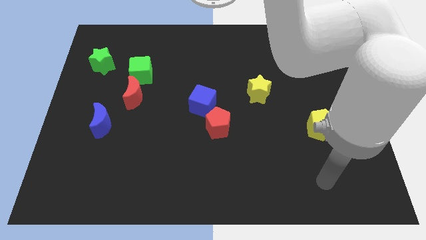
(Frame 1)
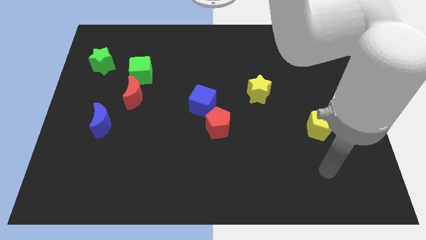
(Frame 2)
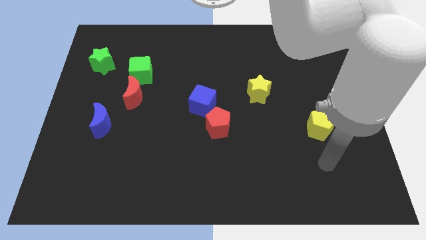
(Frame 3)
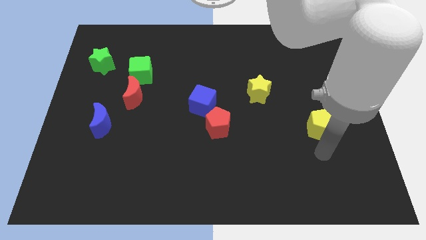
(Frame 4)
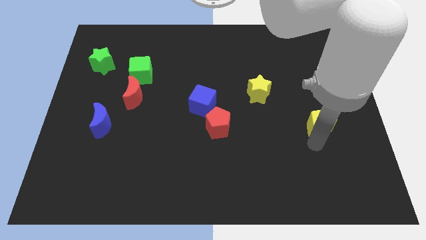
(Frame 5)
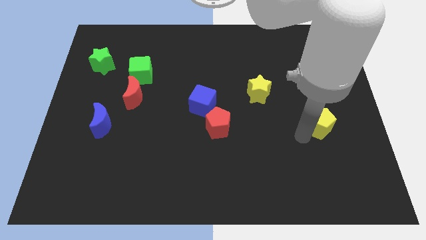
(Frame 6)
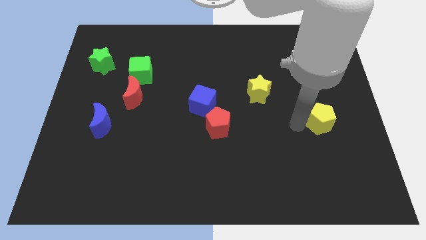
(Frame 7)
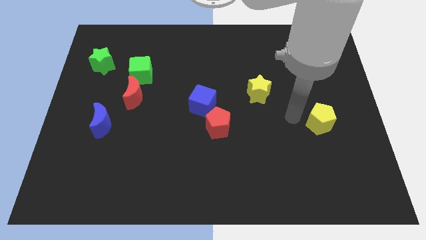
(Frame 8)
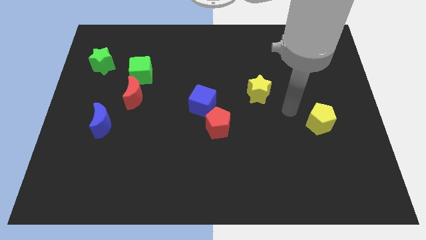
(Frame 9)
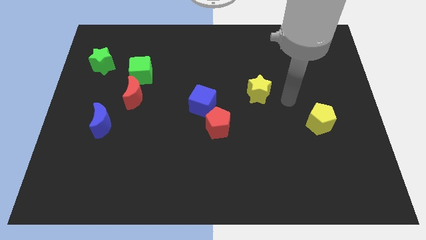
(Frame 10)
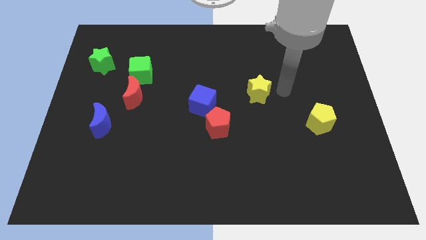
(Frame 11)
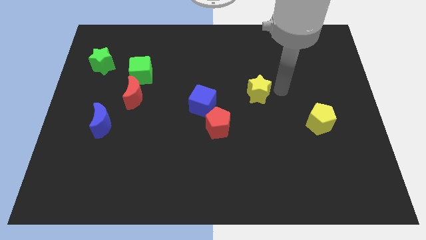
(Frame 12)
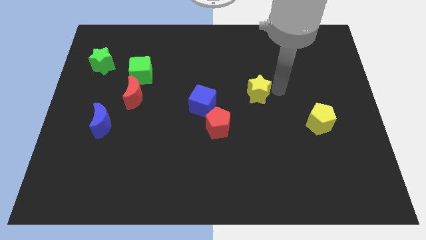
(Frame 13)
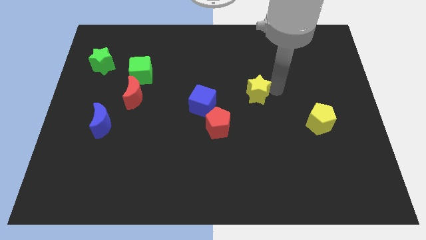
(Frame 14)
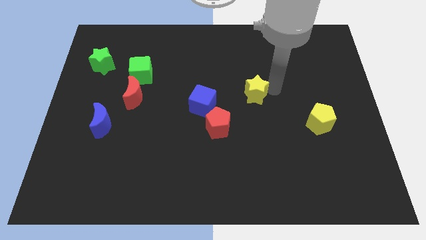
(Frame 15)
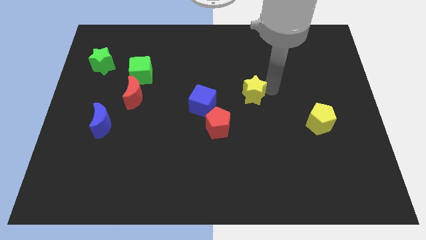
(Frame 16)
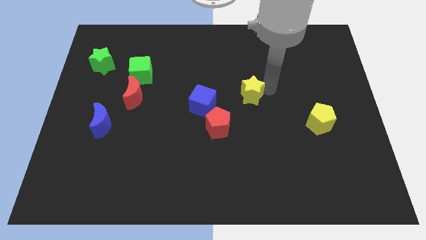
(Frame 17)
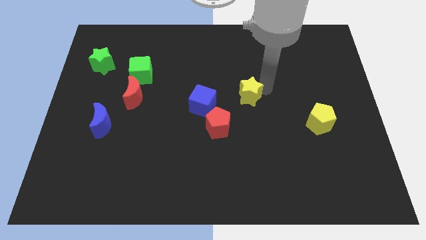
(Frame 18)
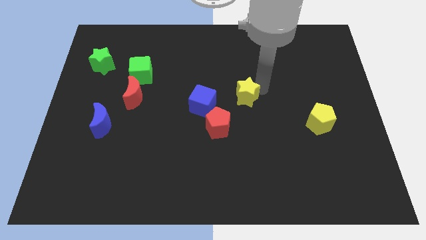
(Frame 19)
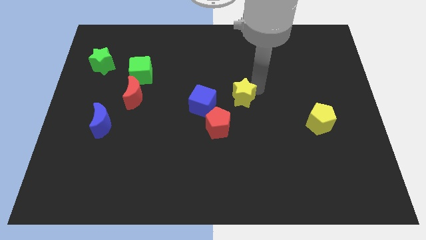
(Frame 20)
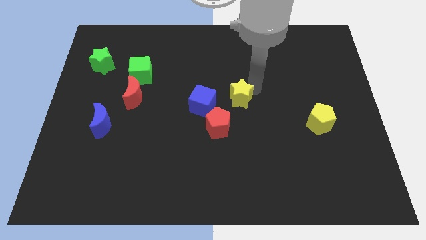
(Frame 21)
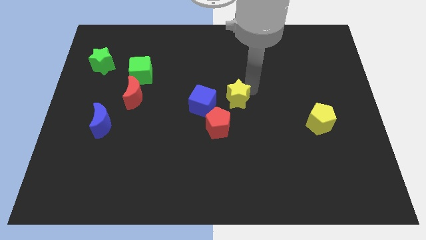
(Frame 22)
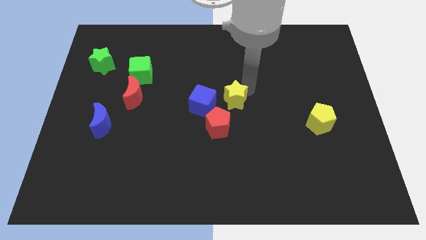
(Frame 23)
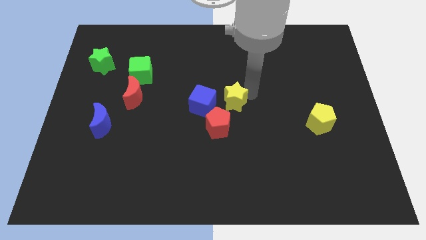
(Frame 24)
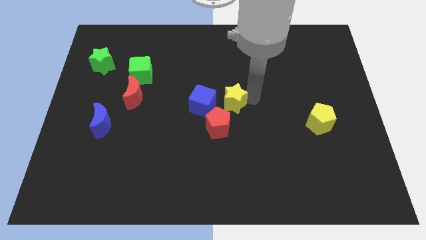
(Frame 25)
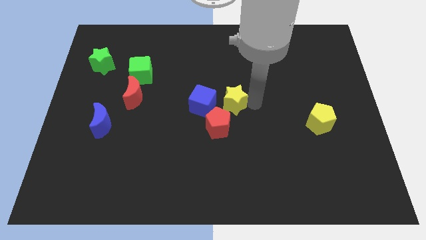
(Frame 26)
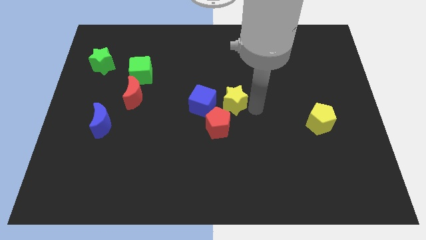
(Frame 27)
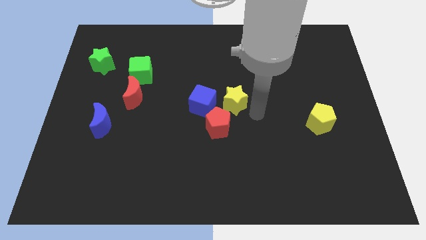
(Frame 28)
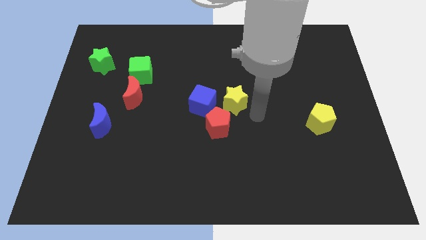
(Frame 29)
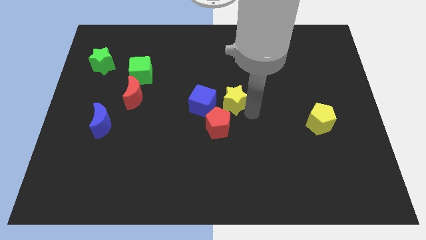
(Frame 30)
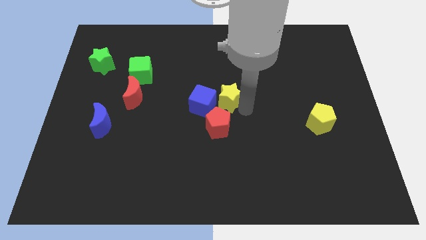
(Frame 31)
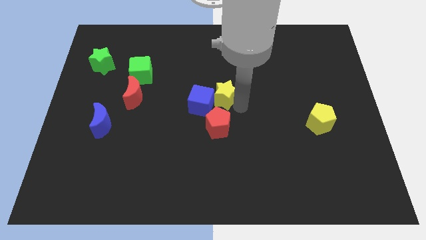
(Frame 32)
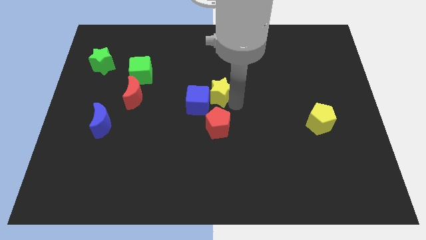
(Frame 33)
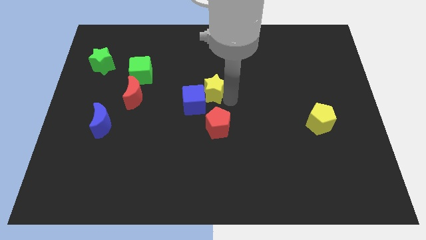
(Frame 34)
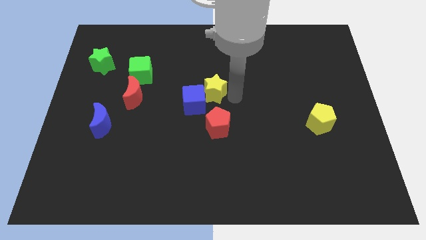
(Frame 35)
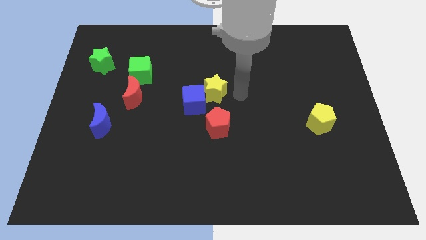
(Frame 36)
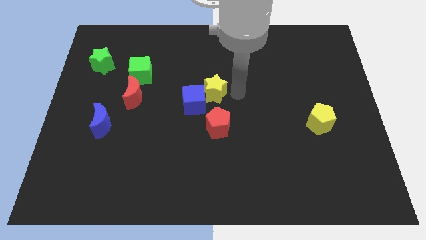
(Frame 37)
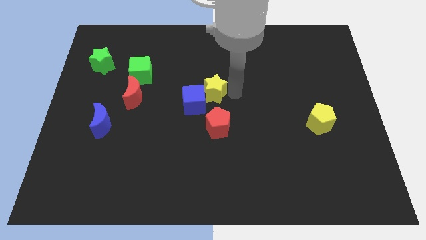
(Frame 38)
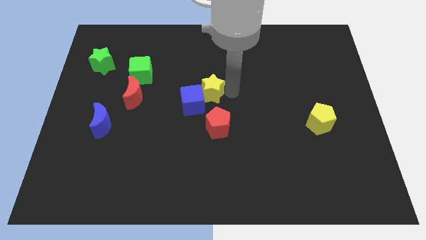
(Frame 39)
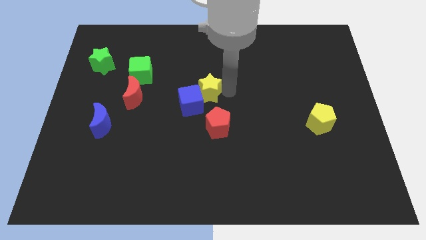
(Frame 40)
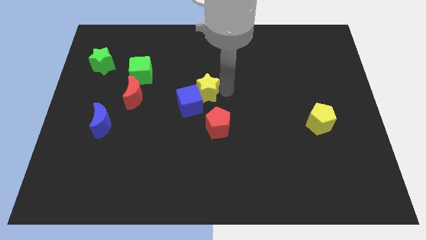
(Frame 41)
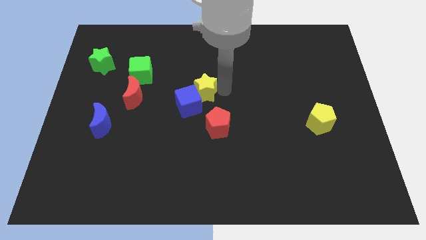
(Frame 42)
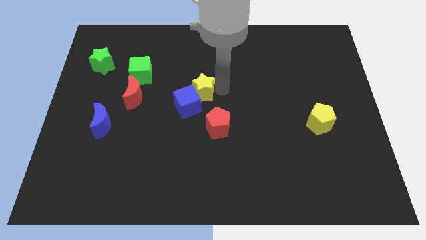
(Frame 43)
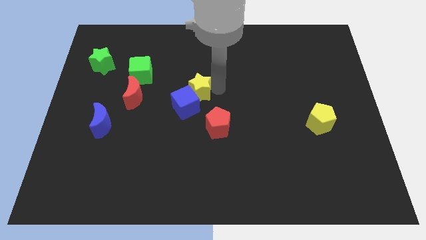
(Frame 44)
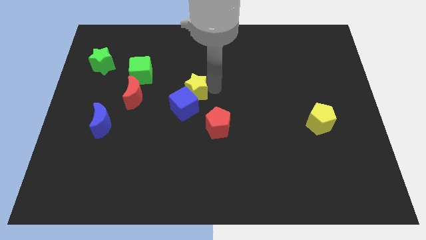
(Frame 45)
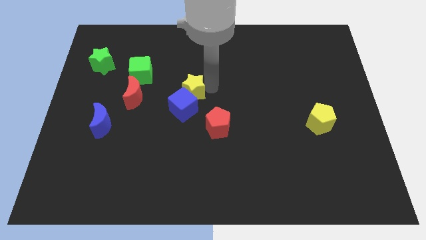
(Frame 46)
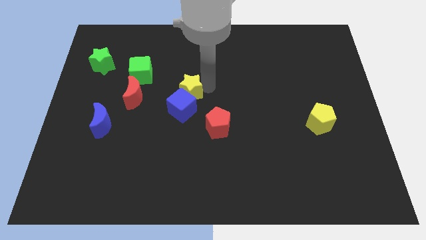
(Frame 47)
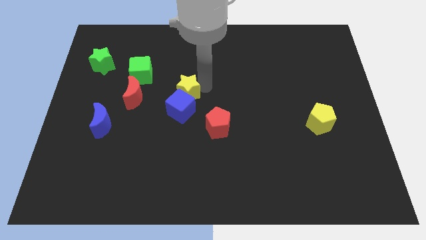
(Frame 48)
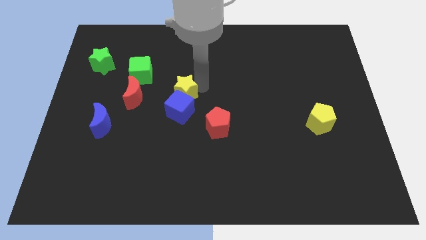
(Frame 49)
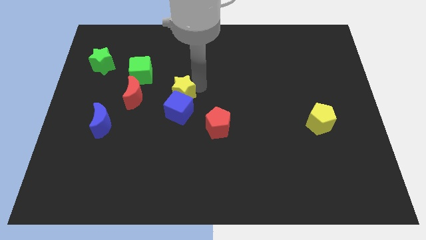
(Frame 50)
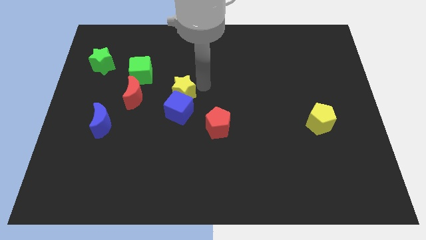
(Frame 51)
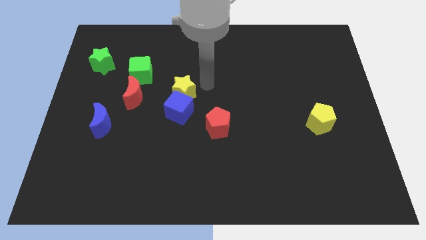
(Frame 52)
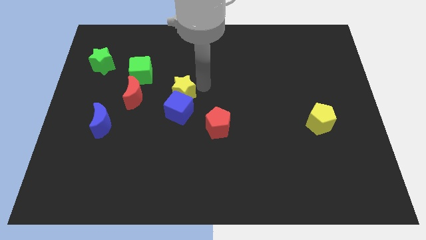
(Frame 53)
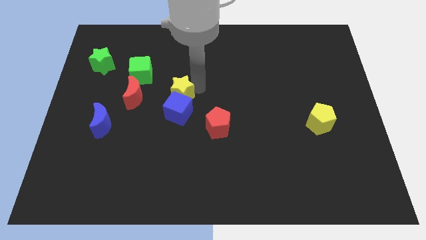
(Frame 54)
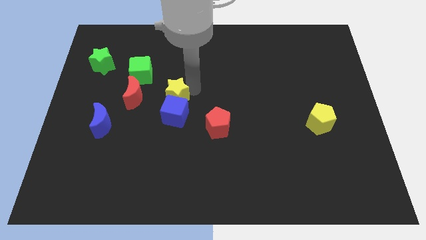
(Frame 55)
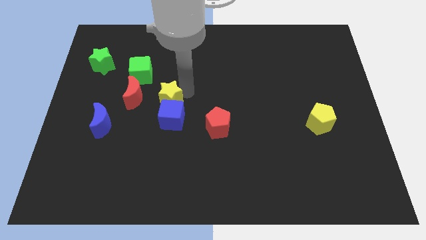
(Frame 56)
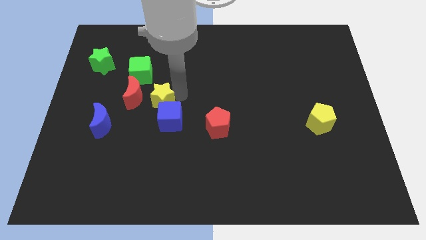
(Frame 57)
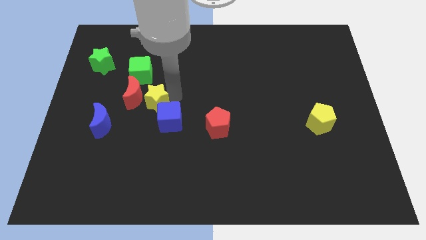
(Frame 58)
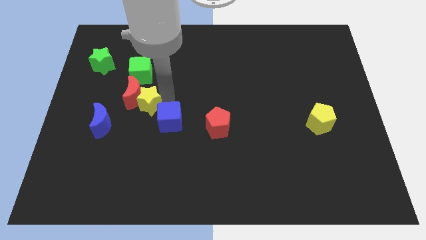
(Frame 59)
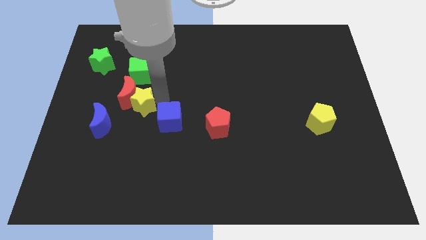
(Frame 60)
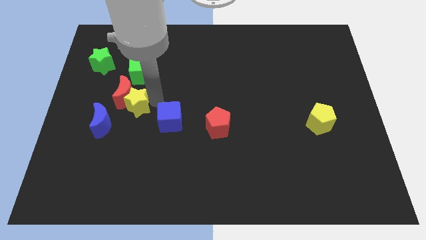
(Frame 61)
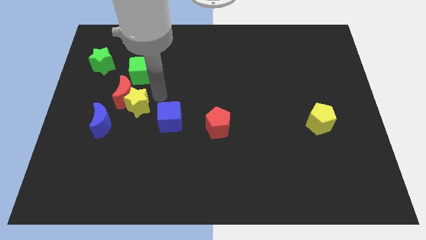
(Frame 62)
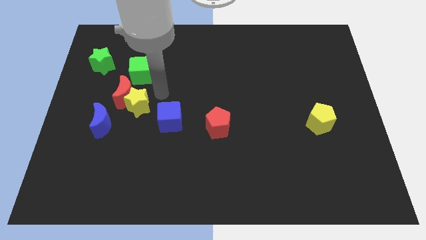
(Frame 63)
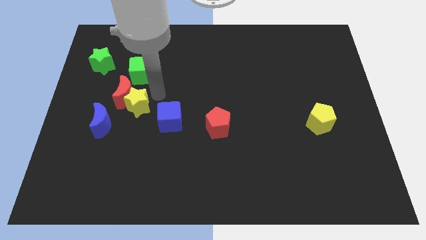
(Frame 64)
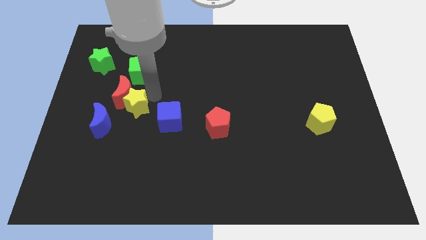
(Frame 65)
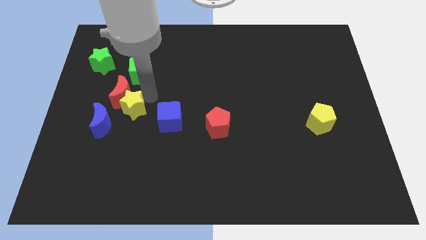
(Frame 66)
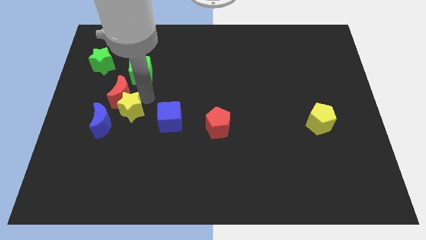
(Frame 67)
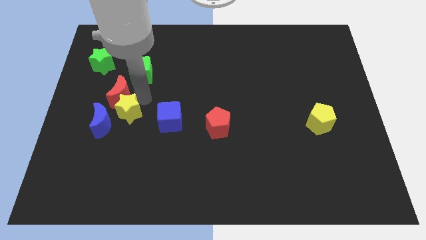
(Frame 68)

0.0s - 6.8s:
push the yellow star towards the blue moon
